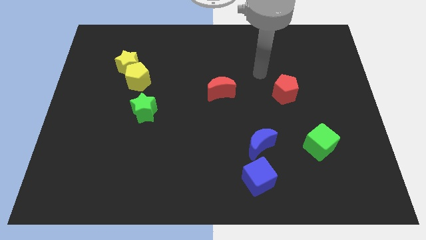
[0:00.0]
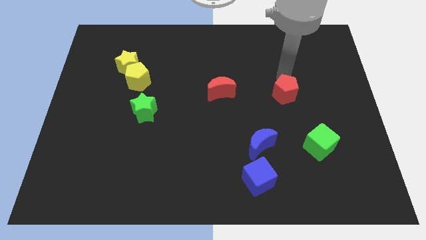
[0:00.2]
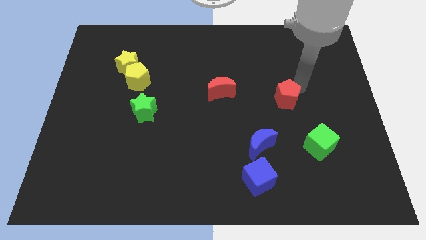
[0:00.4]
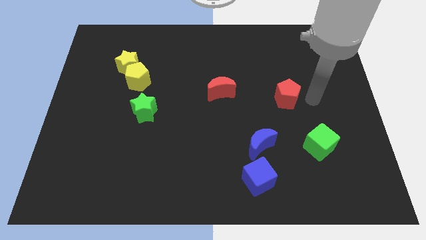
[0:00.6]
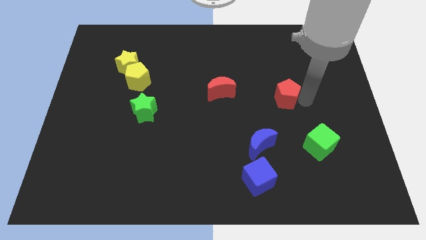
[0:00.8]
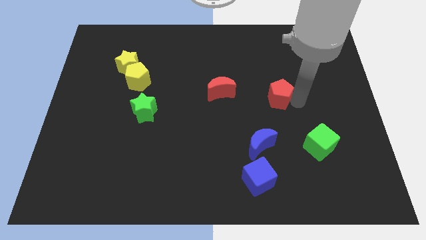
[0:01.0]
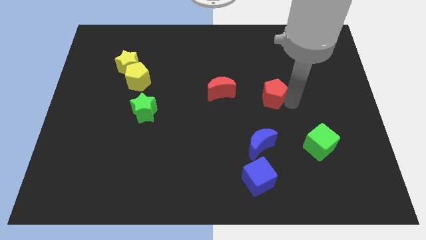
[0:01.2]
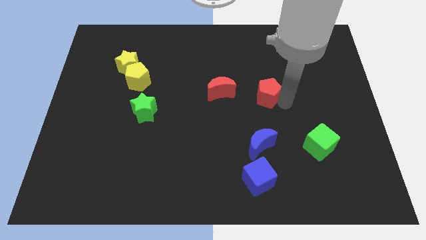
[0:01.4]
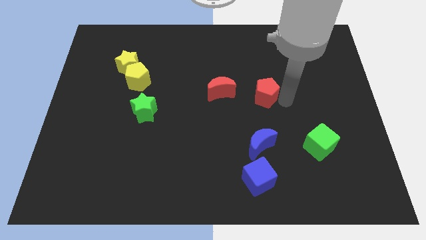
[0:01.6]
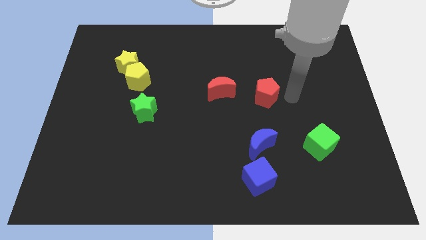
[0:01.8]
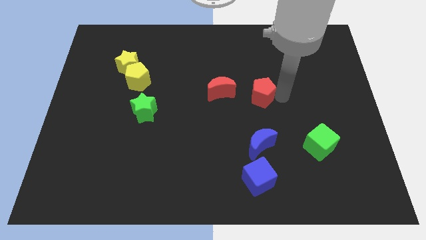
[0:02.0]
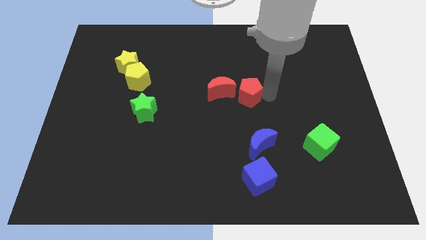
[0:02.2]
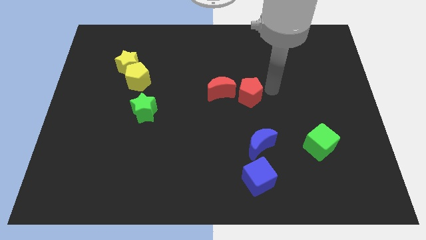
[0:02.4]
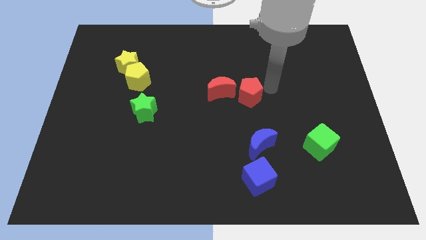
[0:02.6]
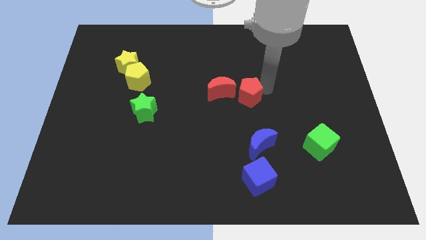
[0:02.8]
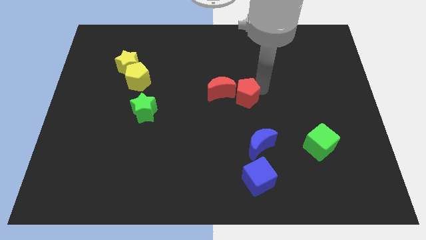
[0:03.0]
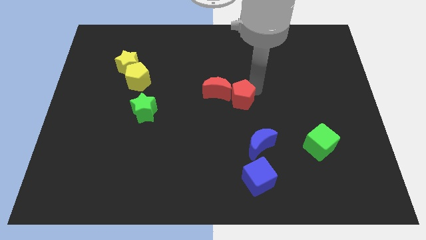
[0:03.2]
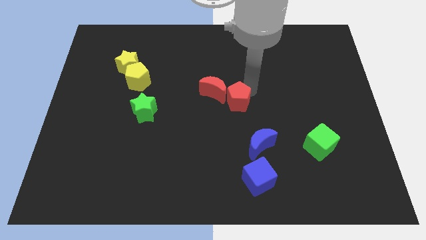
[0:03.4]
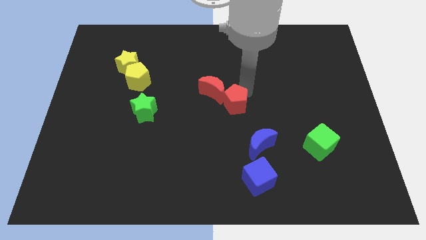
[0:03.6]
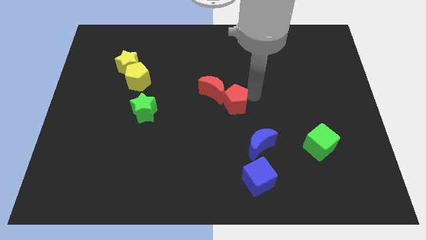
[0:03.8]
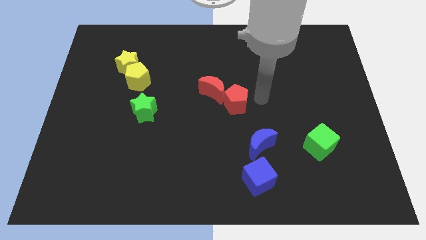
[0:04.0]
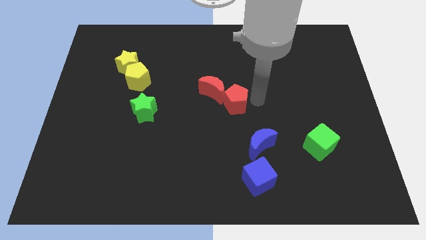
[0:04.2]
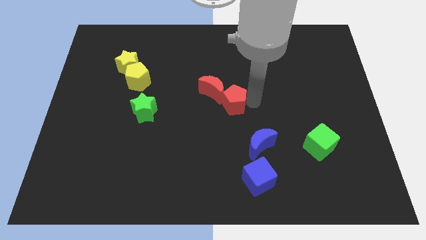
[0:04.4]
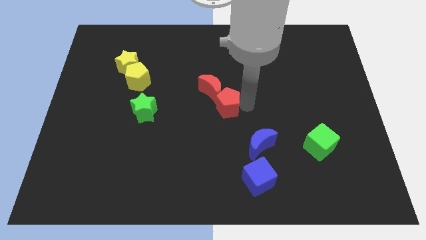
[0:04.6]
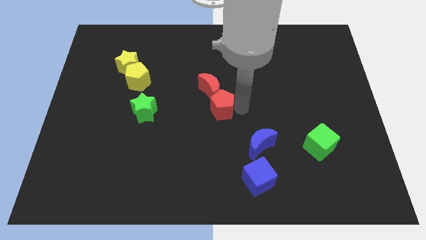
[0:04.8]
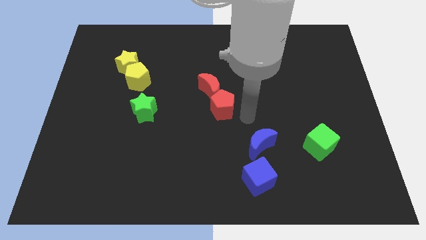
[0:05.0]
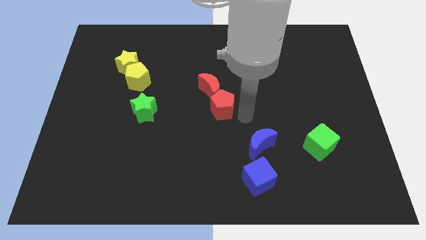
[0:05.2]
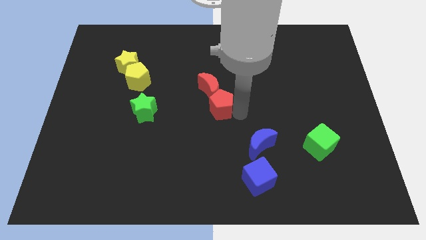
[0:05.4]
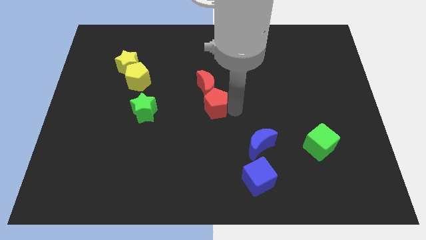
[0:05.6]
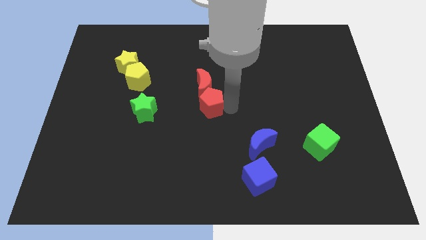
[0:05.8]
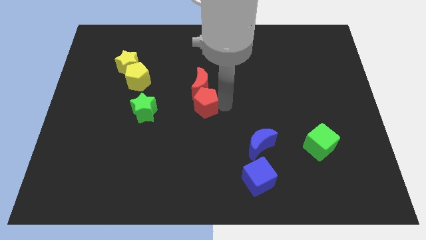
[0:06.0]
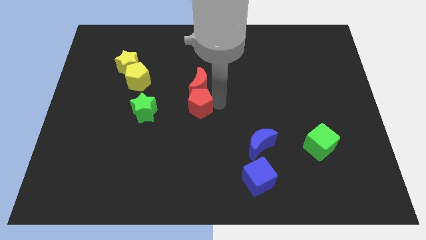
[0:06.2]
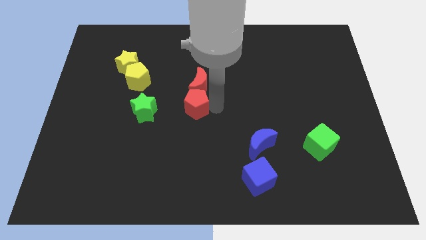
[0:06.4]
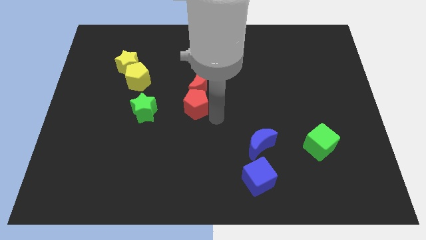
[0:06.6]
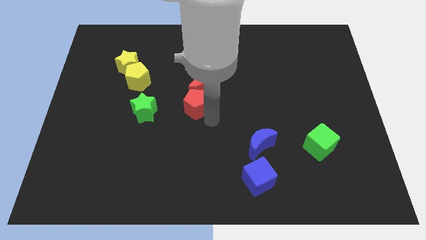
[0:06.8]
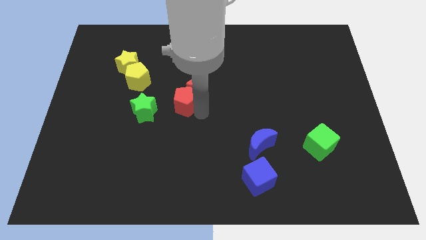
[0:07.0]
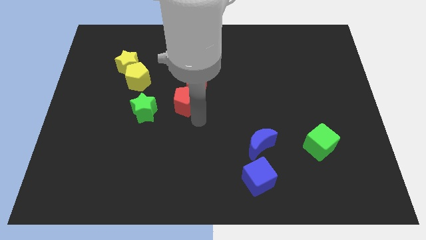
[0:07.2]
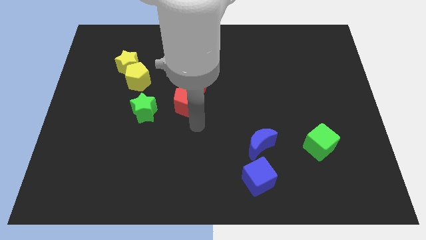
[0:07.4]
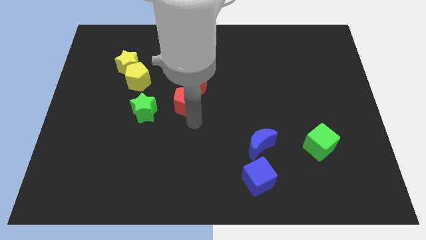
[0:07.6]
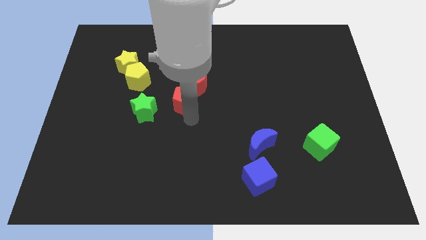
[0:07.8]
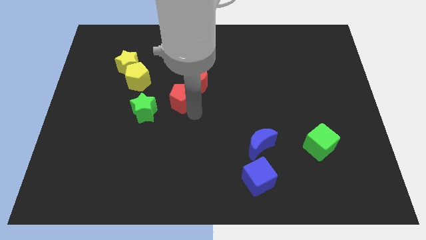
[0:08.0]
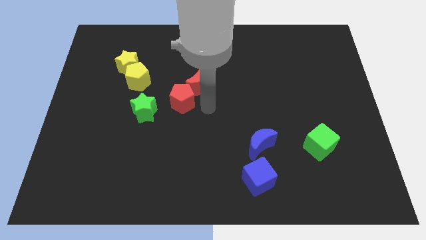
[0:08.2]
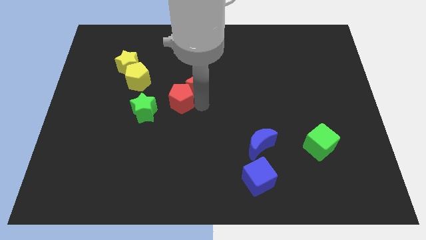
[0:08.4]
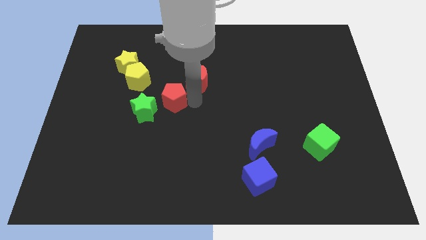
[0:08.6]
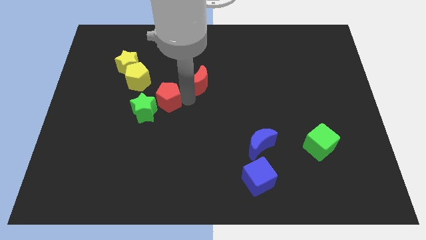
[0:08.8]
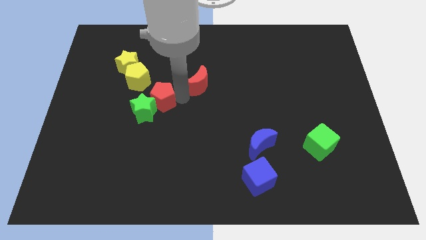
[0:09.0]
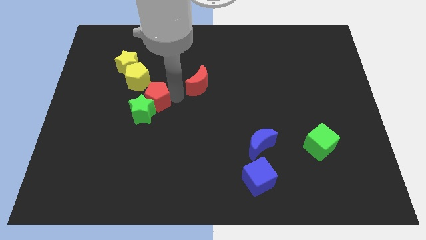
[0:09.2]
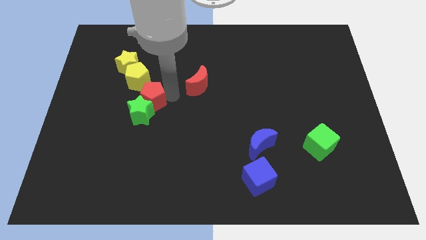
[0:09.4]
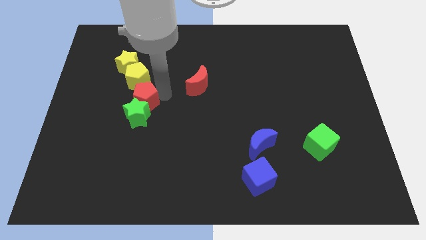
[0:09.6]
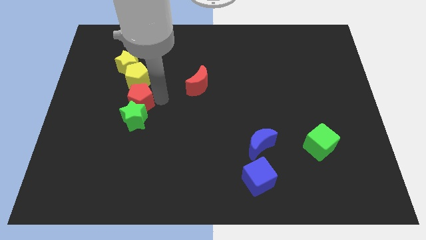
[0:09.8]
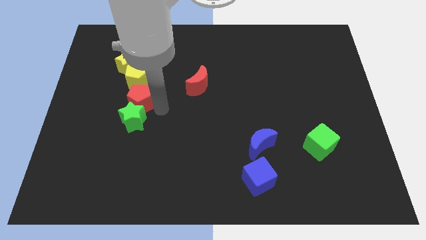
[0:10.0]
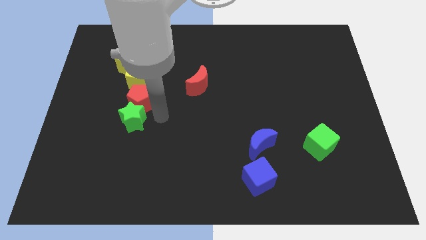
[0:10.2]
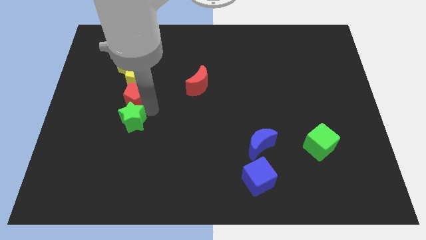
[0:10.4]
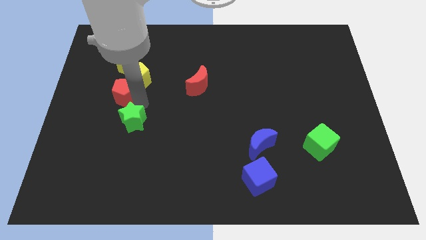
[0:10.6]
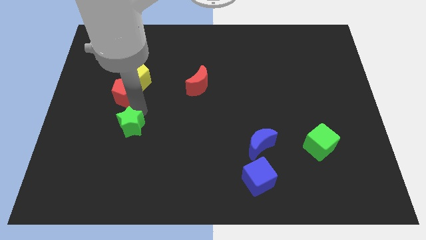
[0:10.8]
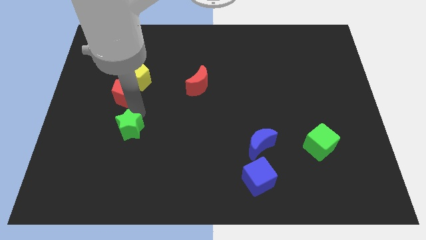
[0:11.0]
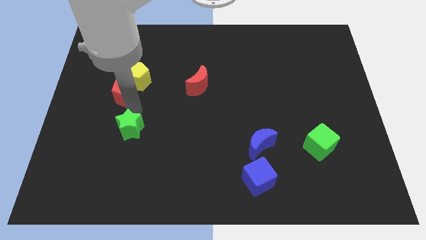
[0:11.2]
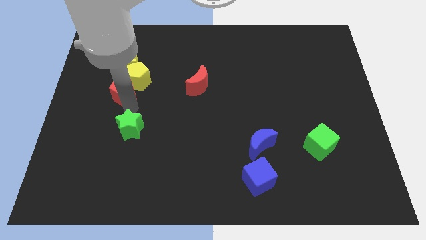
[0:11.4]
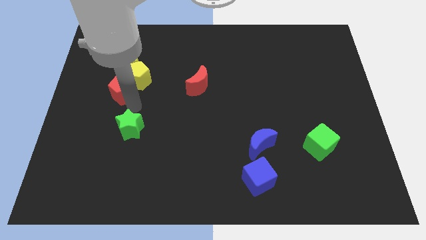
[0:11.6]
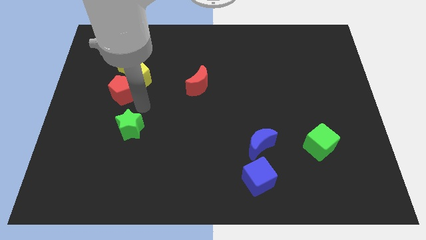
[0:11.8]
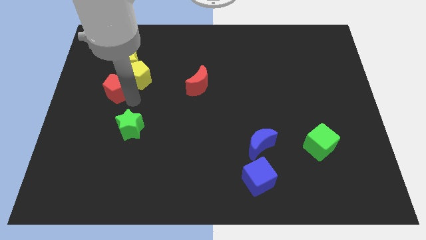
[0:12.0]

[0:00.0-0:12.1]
slide the red pentagon to the bottom left of the yellow star

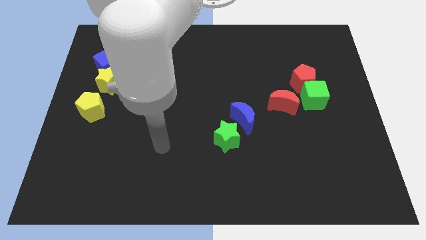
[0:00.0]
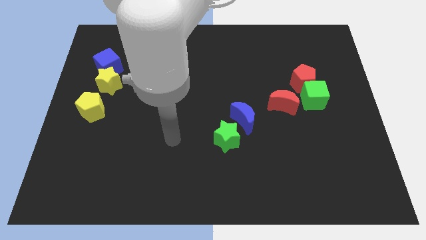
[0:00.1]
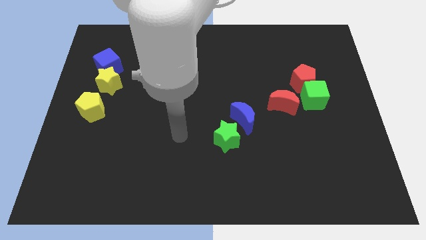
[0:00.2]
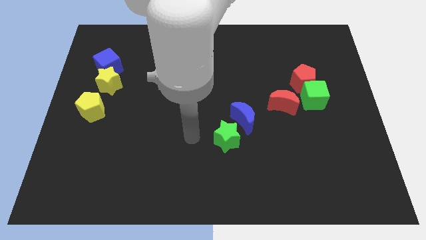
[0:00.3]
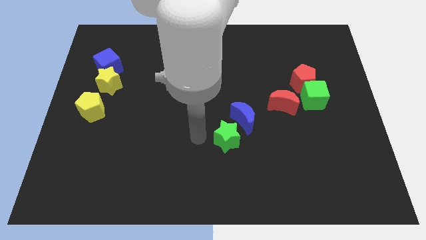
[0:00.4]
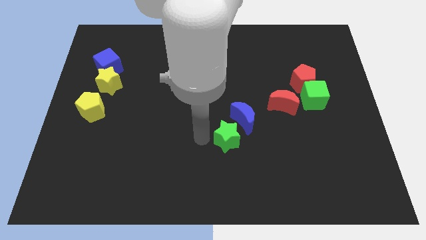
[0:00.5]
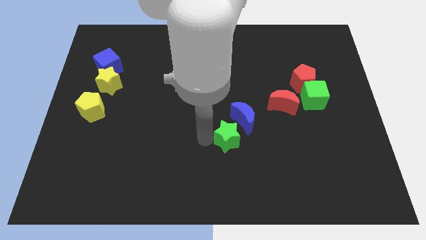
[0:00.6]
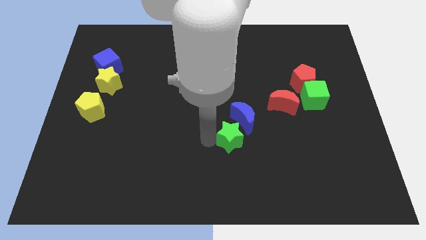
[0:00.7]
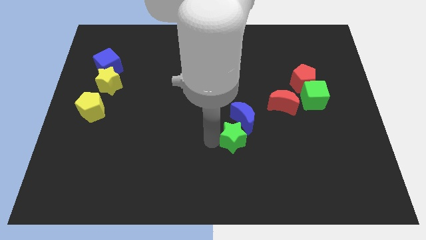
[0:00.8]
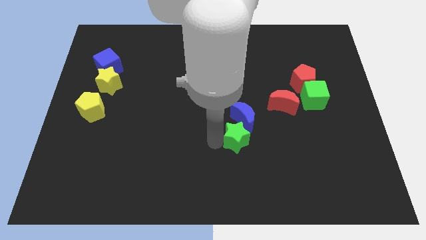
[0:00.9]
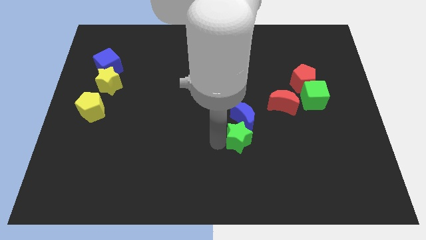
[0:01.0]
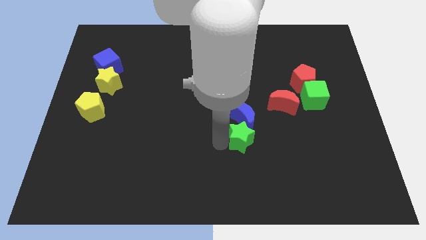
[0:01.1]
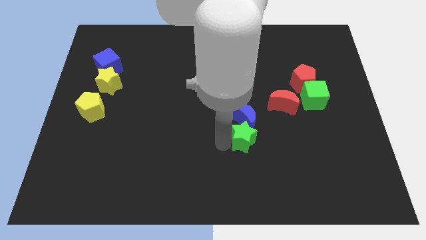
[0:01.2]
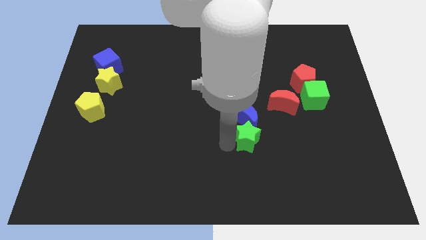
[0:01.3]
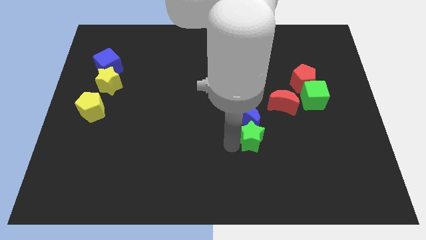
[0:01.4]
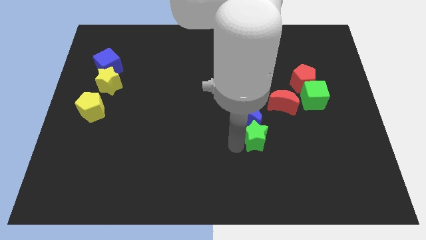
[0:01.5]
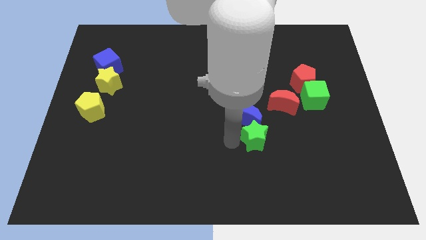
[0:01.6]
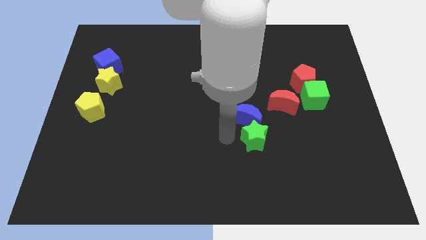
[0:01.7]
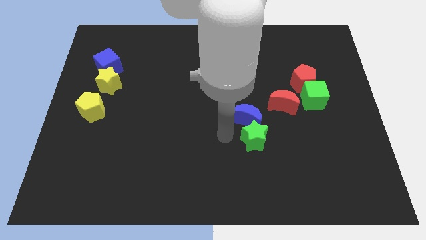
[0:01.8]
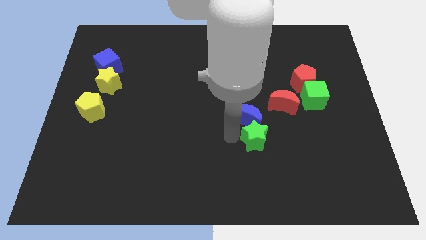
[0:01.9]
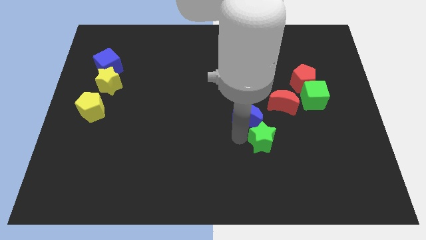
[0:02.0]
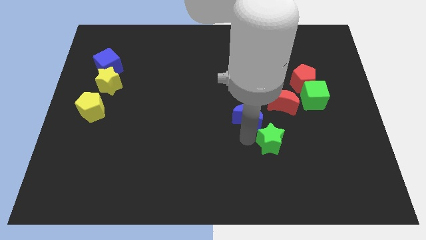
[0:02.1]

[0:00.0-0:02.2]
push the green star below the red moon

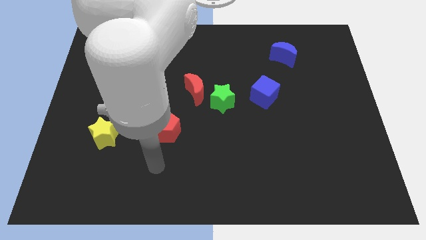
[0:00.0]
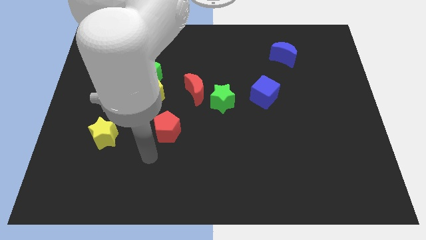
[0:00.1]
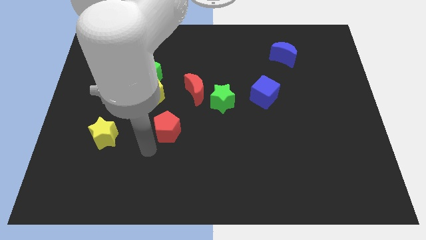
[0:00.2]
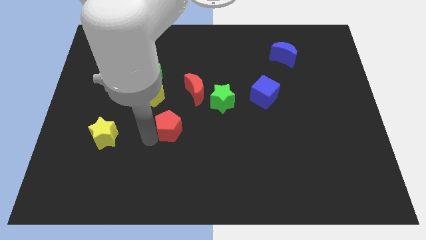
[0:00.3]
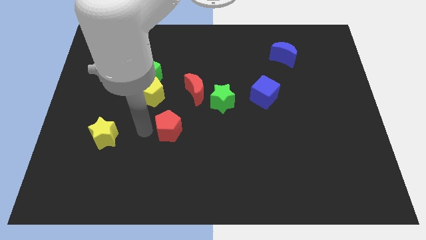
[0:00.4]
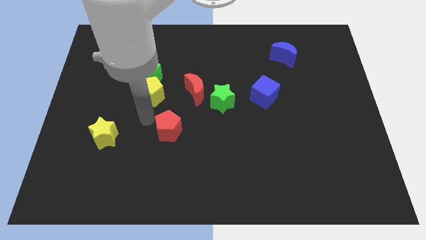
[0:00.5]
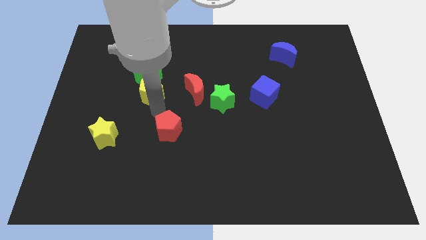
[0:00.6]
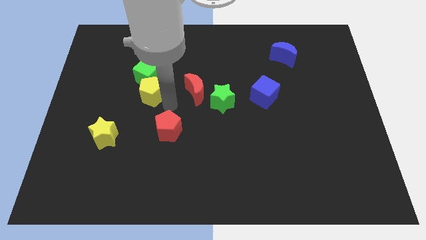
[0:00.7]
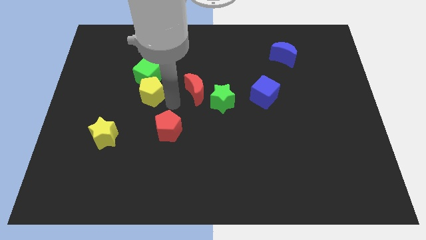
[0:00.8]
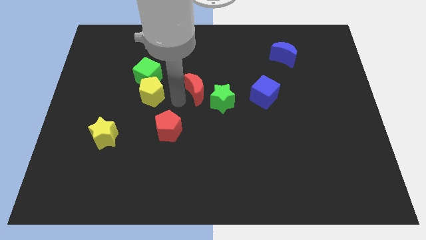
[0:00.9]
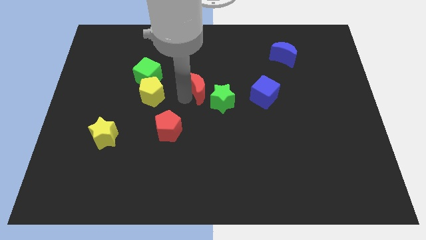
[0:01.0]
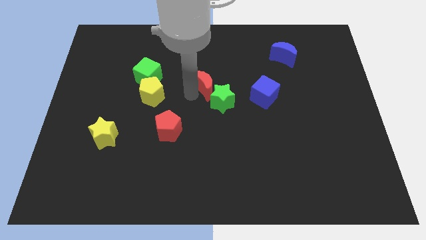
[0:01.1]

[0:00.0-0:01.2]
push the red moon to the top of the green star
